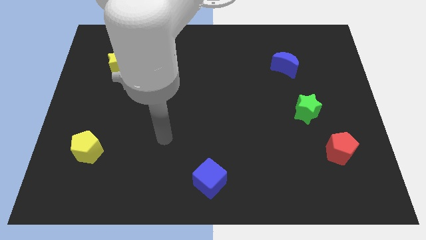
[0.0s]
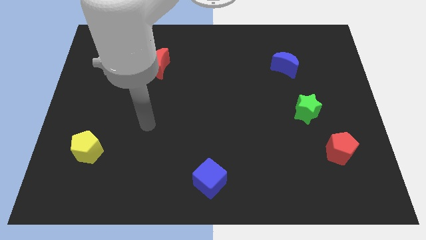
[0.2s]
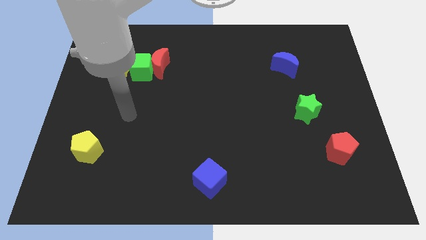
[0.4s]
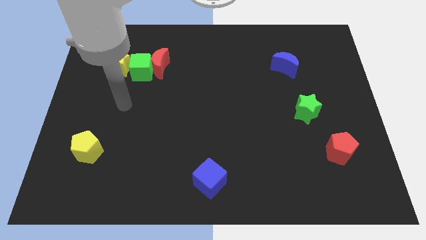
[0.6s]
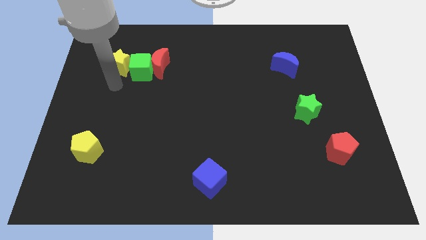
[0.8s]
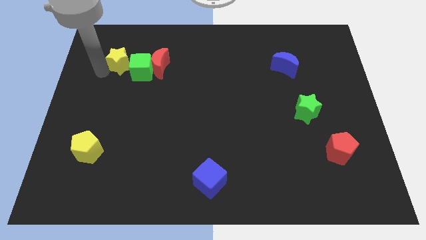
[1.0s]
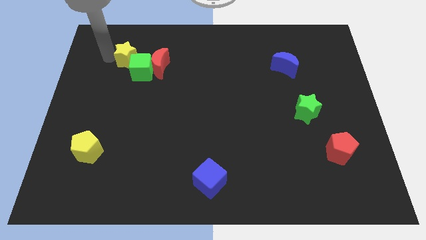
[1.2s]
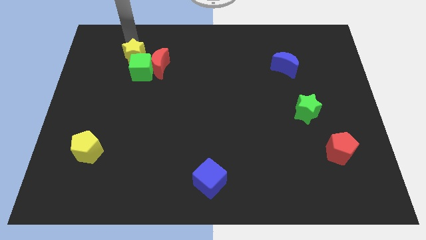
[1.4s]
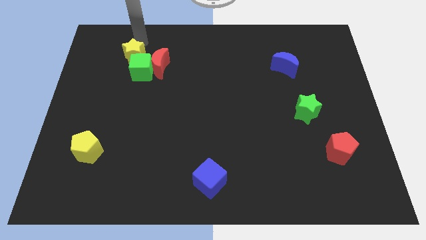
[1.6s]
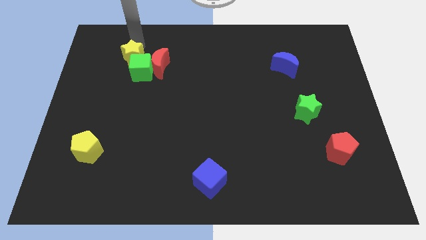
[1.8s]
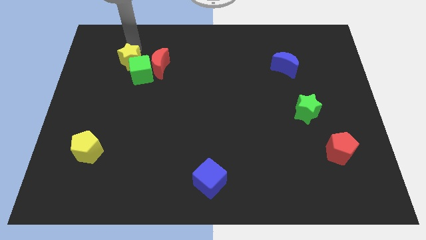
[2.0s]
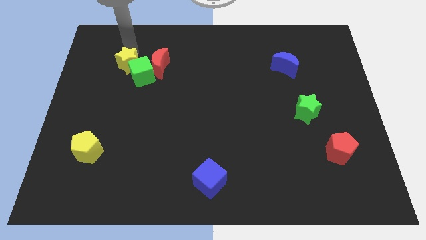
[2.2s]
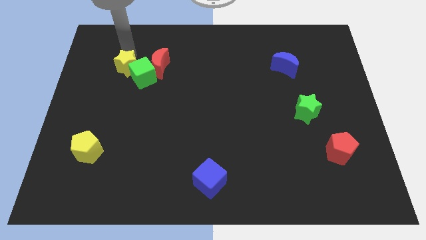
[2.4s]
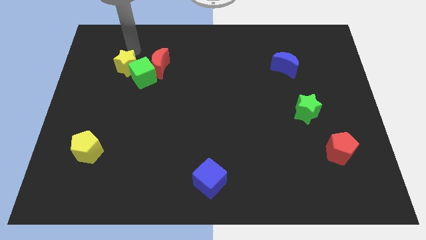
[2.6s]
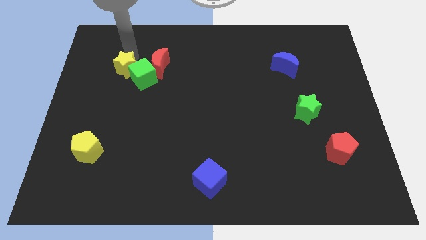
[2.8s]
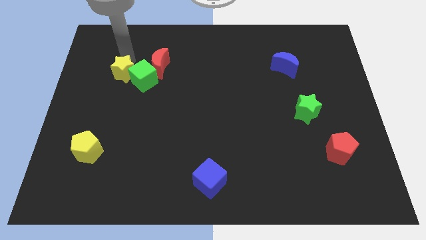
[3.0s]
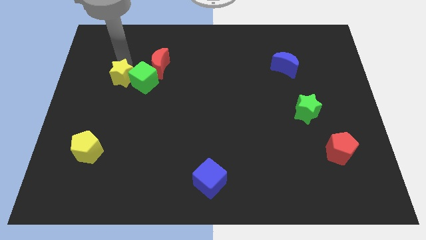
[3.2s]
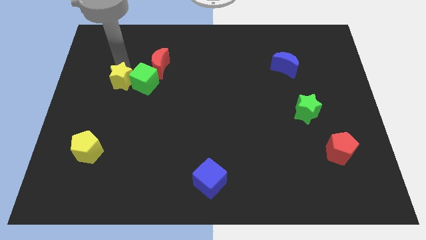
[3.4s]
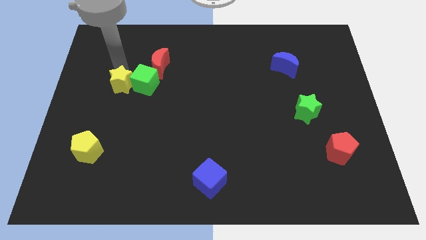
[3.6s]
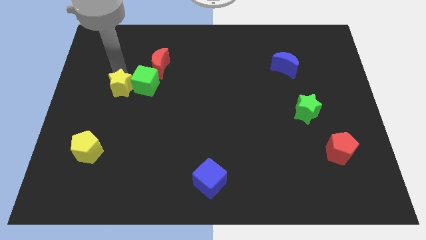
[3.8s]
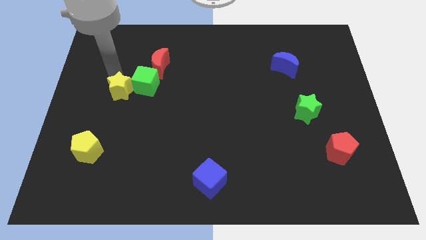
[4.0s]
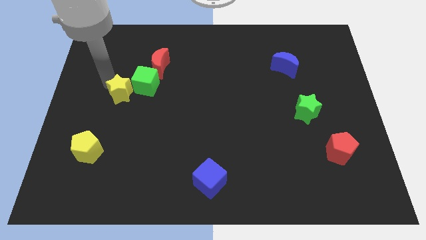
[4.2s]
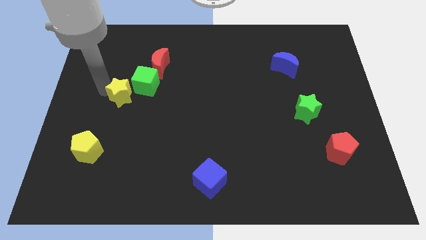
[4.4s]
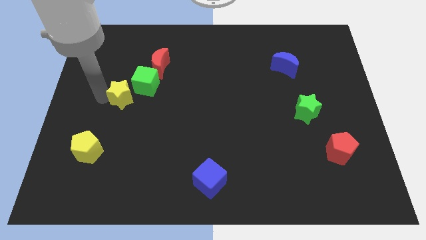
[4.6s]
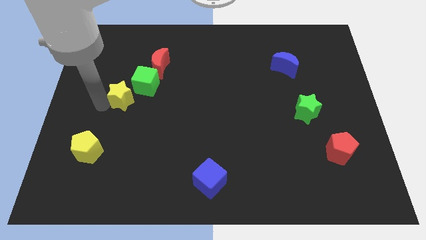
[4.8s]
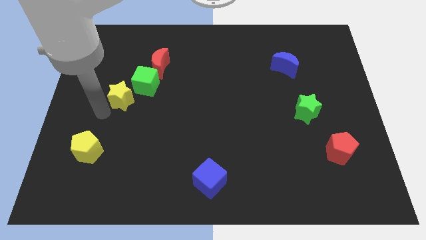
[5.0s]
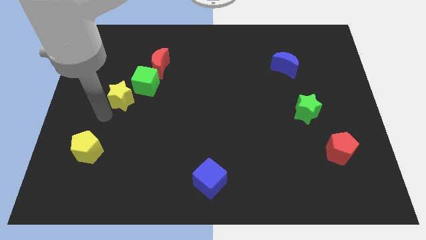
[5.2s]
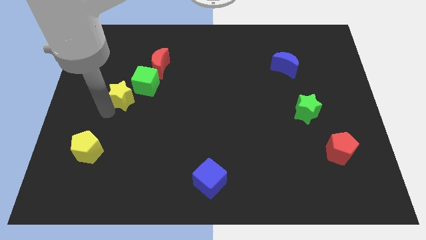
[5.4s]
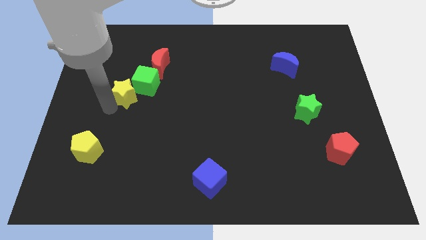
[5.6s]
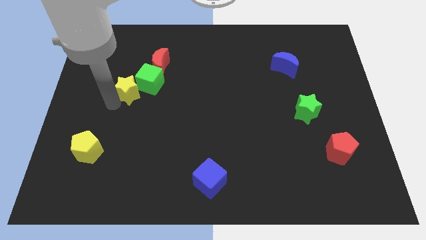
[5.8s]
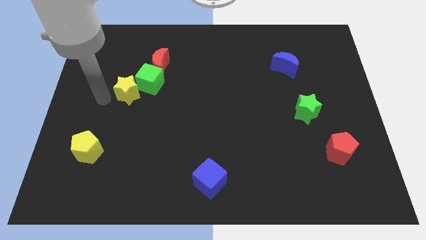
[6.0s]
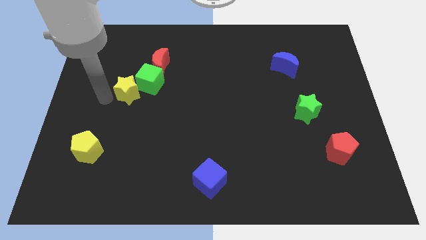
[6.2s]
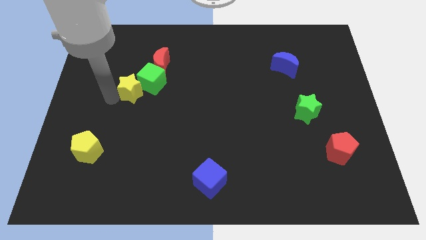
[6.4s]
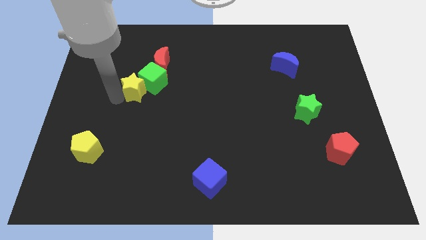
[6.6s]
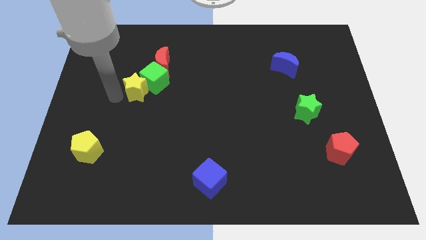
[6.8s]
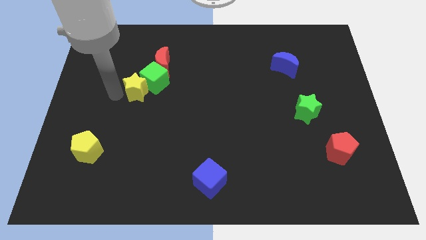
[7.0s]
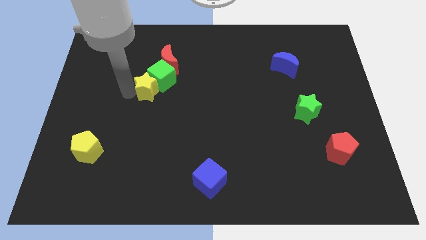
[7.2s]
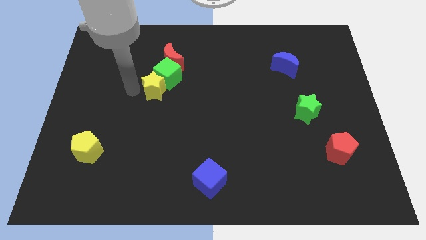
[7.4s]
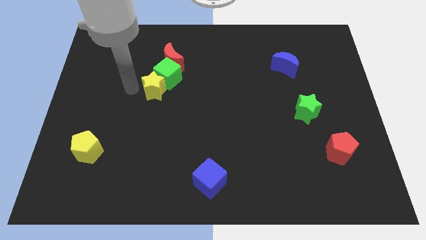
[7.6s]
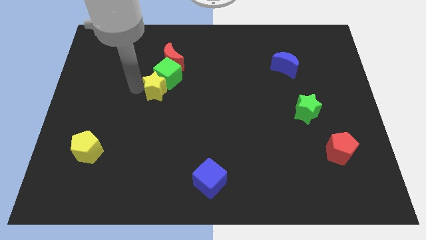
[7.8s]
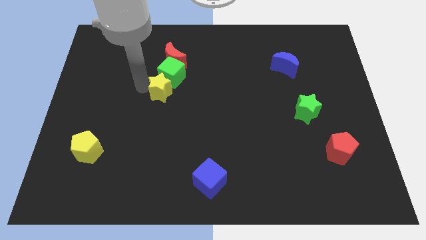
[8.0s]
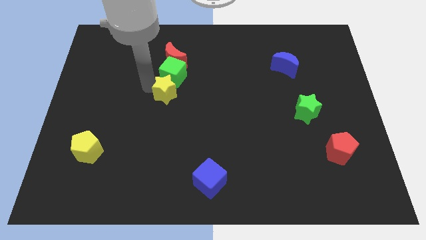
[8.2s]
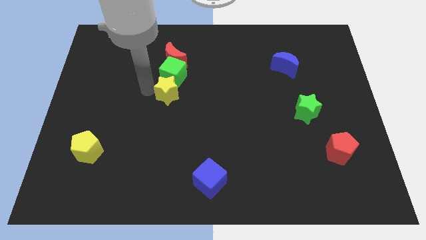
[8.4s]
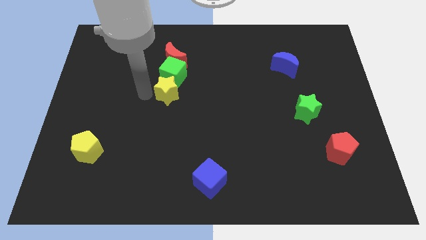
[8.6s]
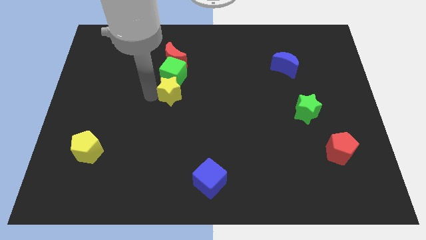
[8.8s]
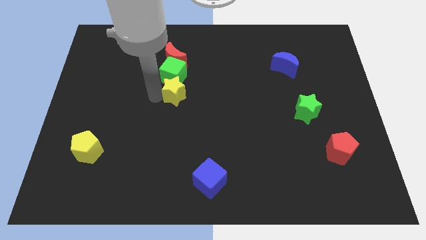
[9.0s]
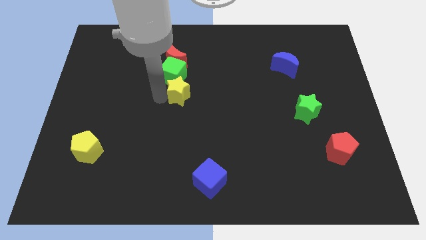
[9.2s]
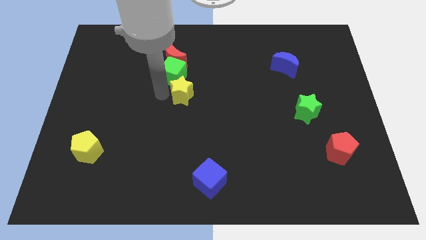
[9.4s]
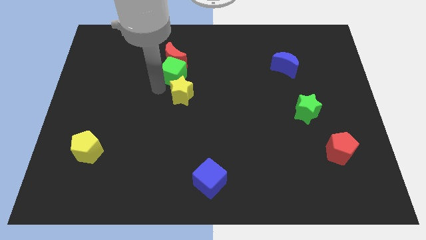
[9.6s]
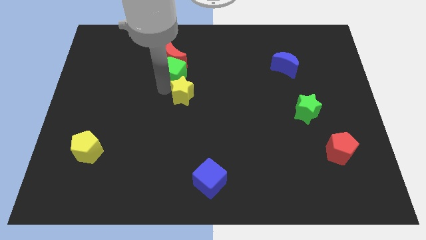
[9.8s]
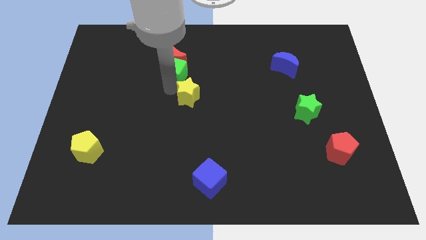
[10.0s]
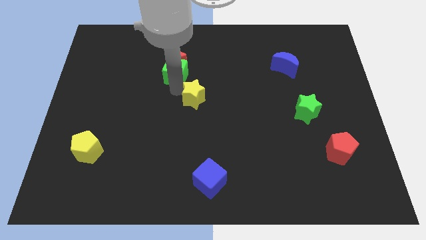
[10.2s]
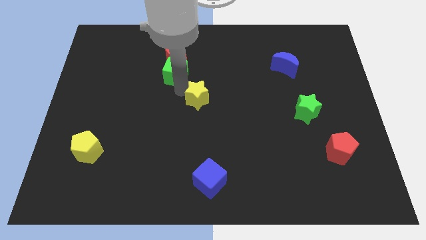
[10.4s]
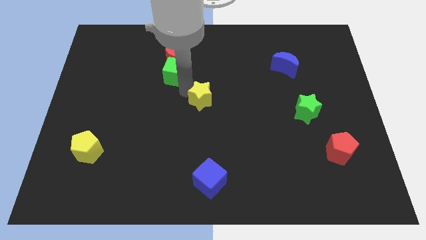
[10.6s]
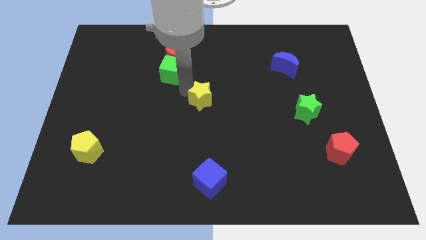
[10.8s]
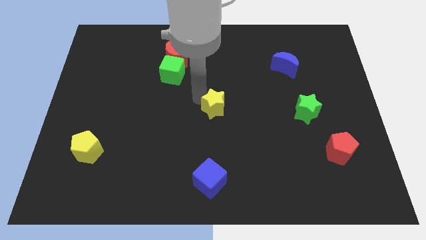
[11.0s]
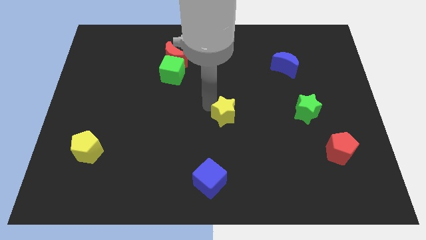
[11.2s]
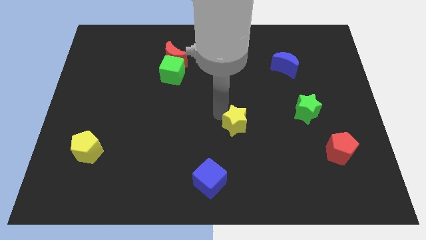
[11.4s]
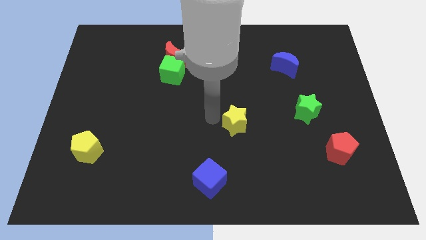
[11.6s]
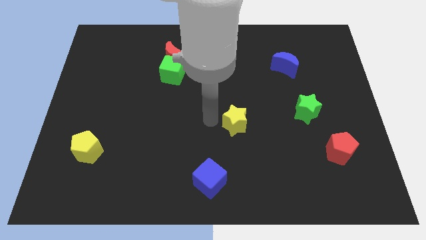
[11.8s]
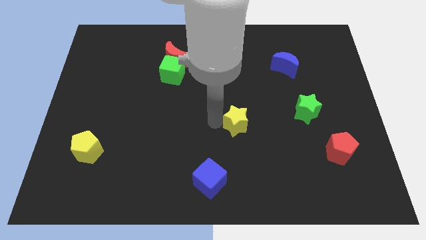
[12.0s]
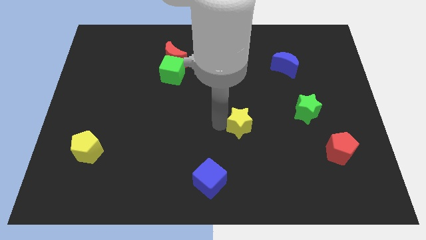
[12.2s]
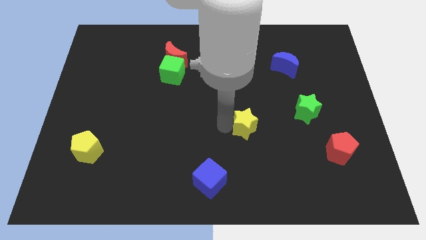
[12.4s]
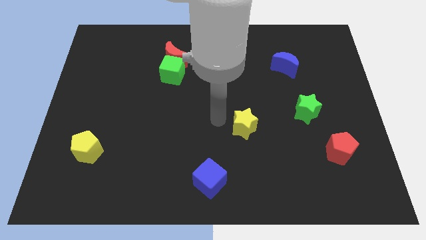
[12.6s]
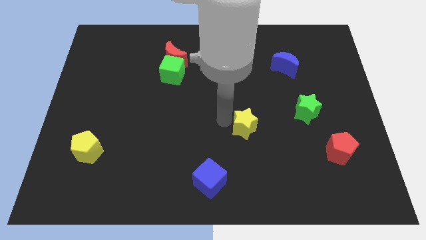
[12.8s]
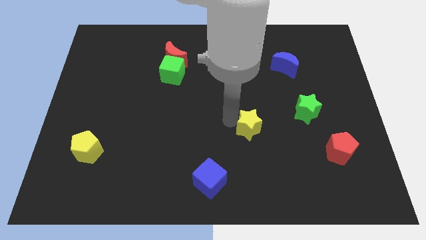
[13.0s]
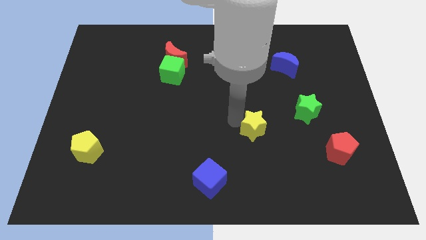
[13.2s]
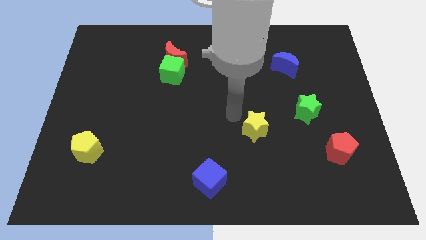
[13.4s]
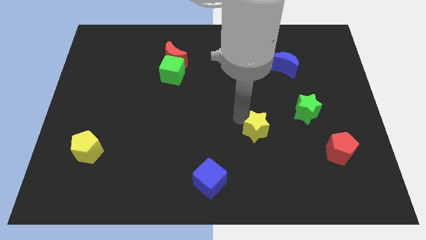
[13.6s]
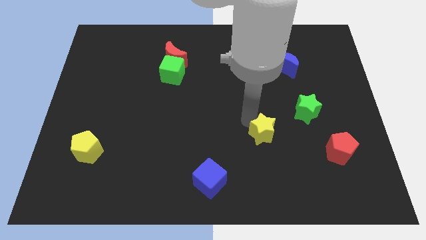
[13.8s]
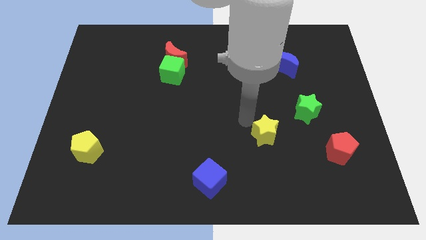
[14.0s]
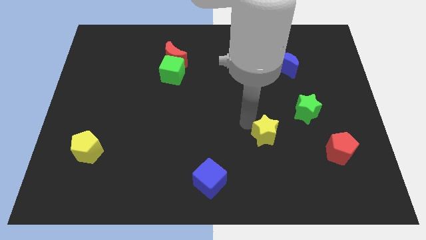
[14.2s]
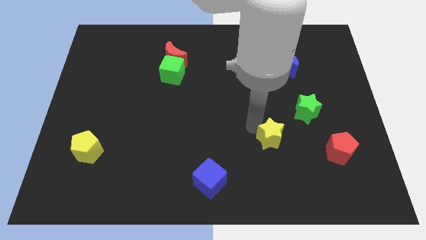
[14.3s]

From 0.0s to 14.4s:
slide the yellow star to the left of the red pentagon

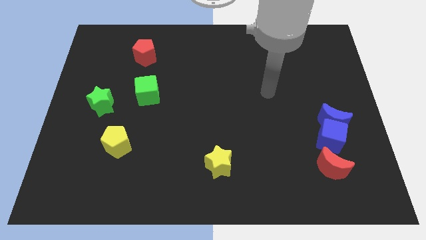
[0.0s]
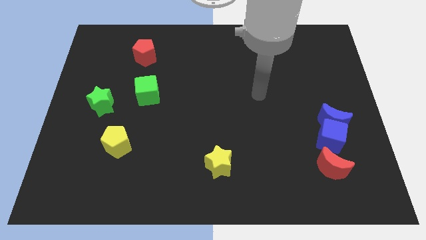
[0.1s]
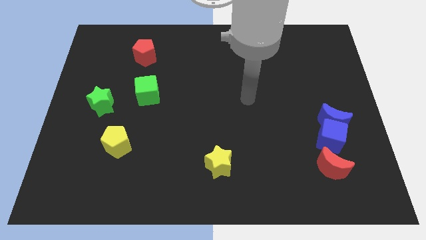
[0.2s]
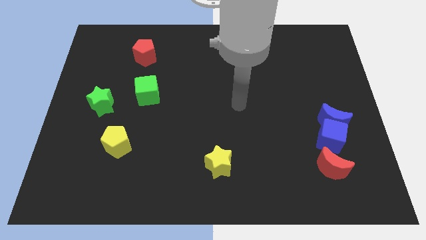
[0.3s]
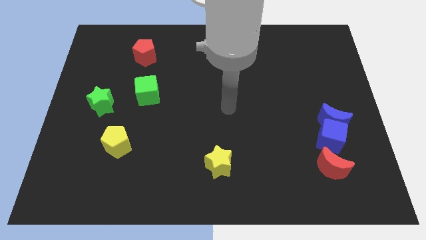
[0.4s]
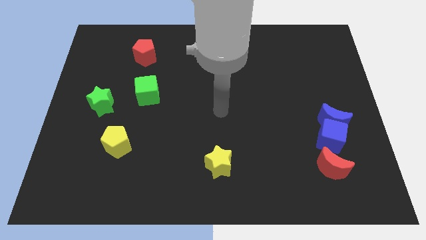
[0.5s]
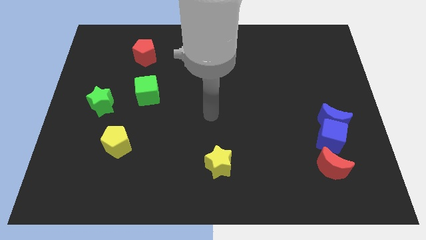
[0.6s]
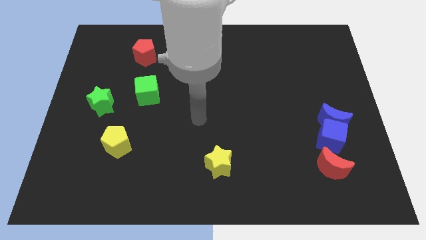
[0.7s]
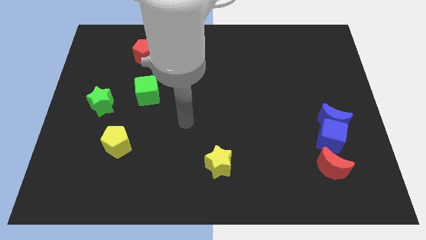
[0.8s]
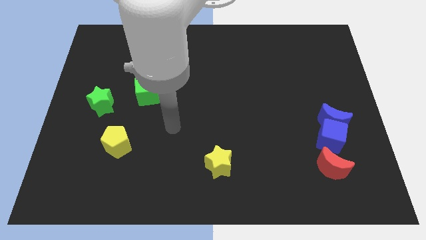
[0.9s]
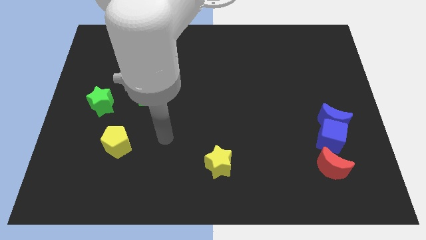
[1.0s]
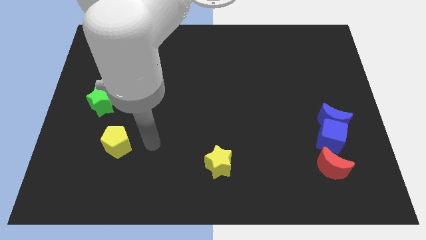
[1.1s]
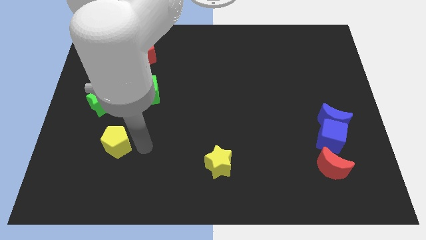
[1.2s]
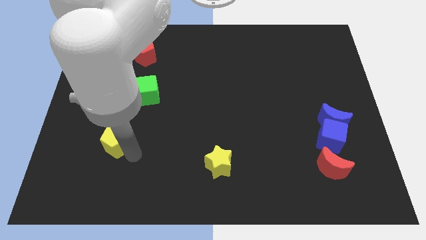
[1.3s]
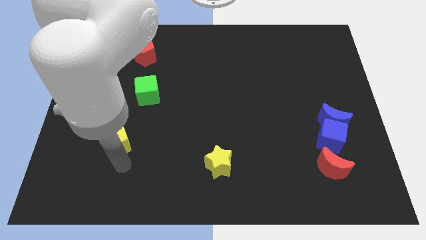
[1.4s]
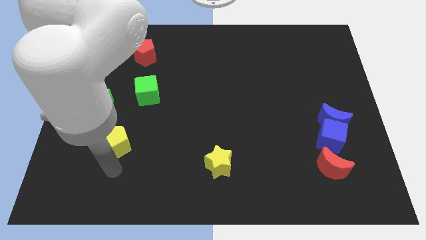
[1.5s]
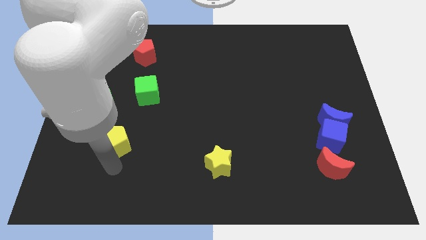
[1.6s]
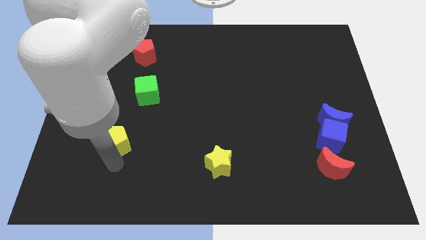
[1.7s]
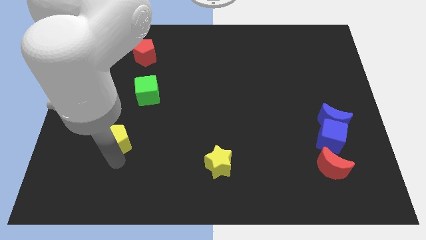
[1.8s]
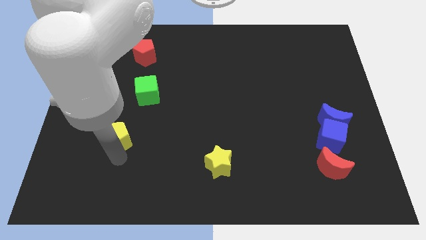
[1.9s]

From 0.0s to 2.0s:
push the yellow pentagon to the bottom right of the green star
